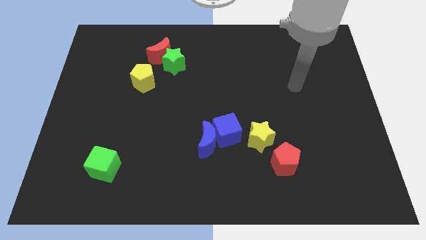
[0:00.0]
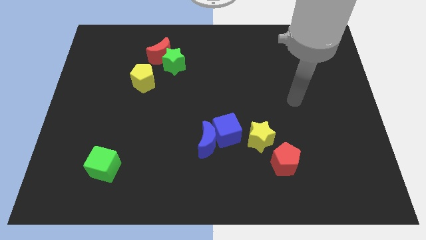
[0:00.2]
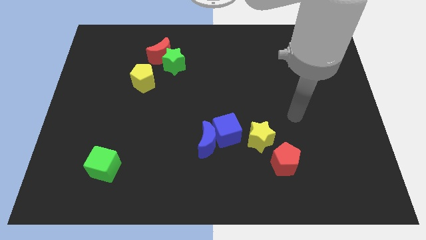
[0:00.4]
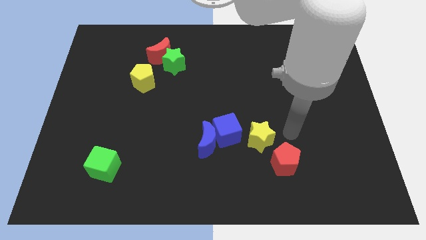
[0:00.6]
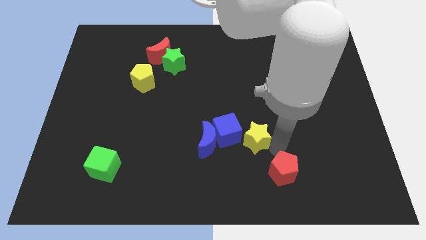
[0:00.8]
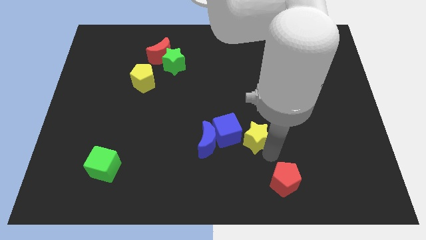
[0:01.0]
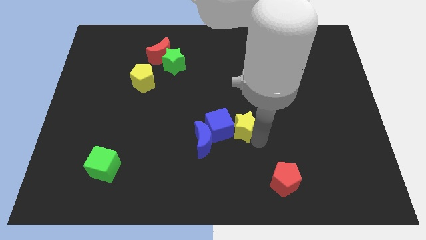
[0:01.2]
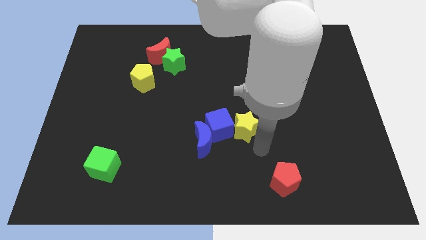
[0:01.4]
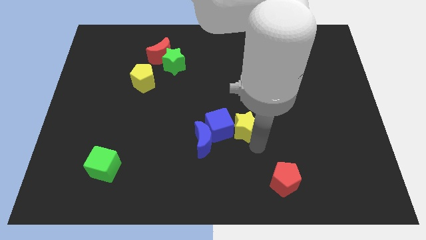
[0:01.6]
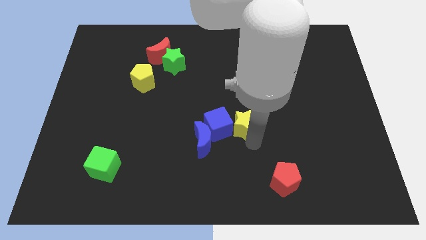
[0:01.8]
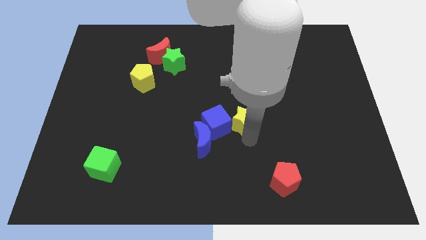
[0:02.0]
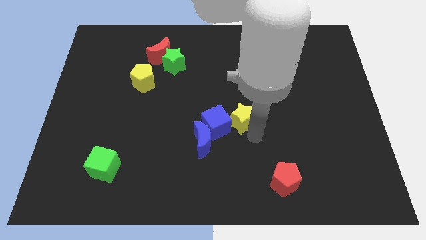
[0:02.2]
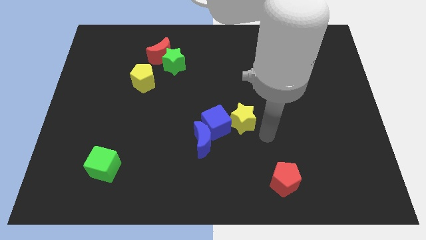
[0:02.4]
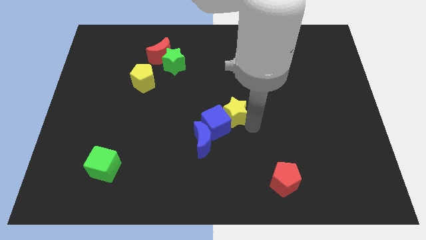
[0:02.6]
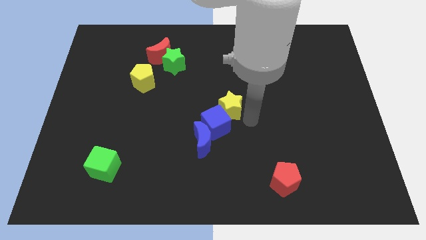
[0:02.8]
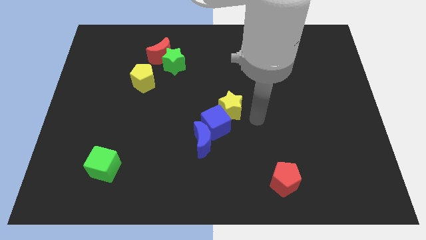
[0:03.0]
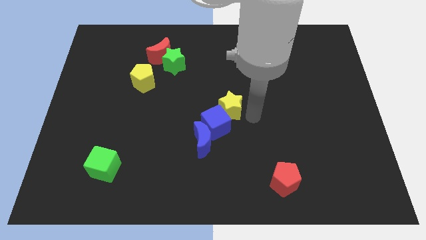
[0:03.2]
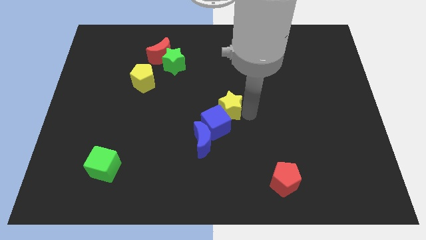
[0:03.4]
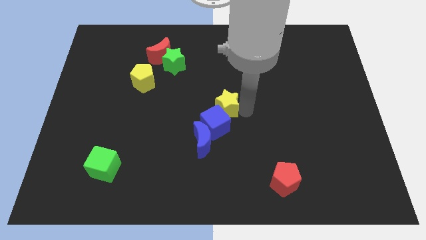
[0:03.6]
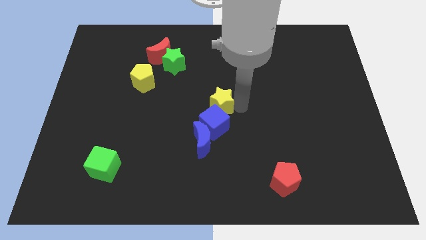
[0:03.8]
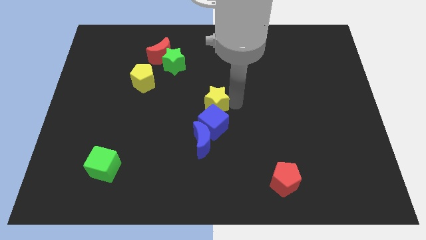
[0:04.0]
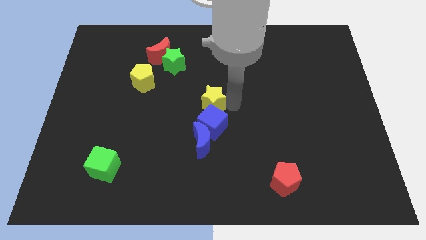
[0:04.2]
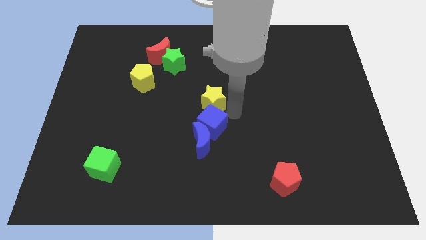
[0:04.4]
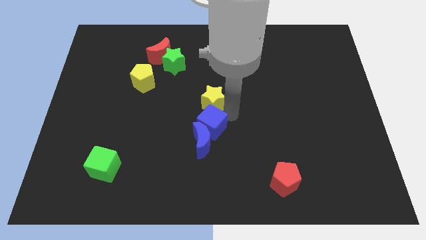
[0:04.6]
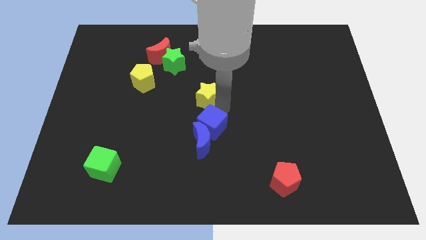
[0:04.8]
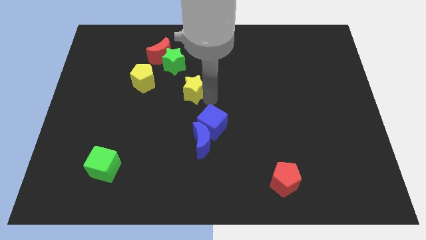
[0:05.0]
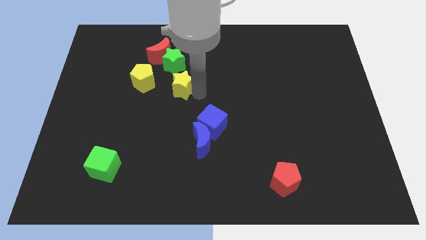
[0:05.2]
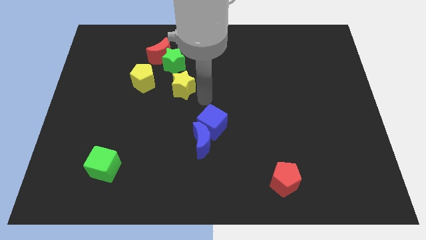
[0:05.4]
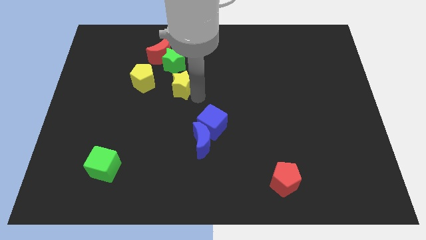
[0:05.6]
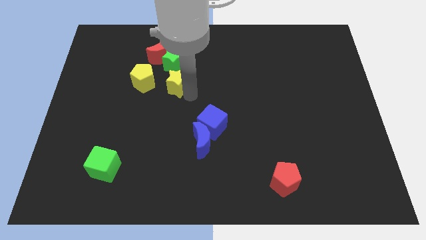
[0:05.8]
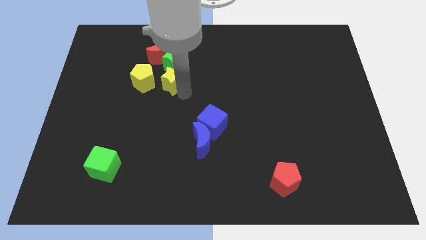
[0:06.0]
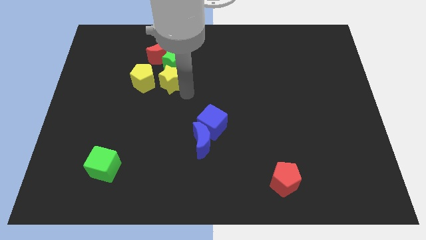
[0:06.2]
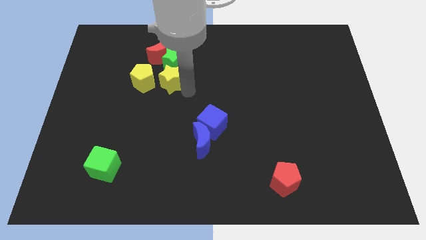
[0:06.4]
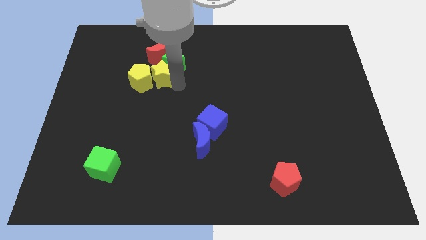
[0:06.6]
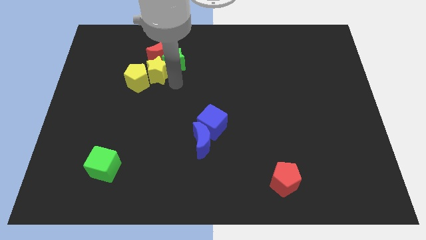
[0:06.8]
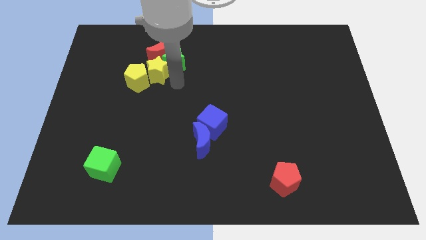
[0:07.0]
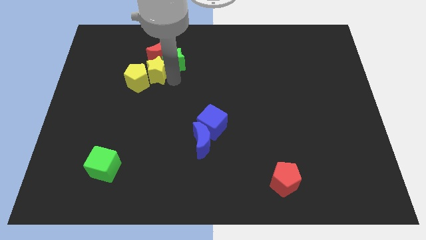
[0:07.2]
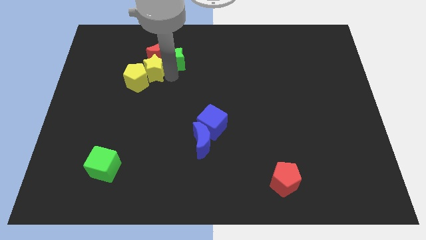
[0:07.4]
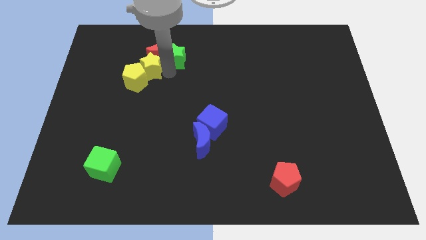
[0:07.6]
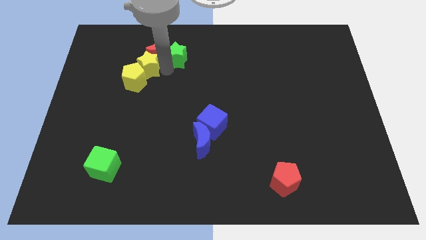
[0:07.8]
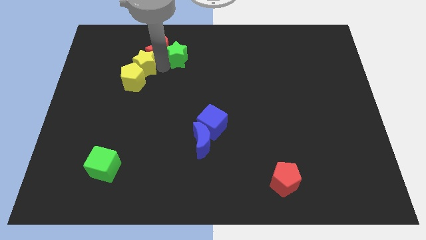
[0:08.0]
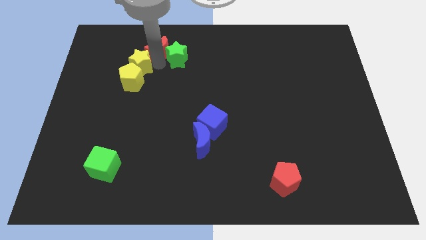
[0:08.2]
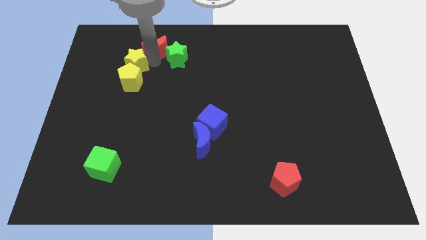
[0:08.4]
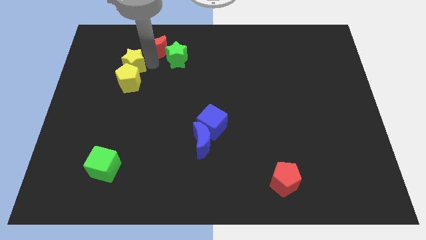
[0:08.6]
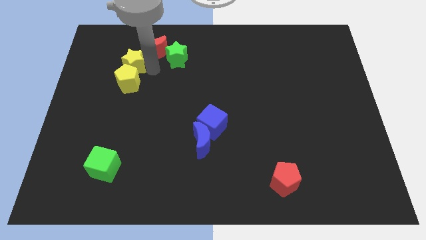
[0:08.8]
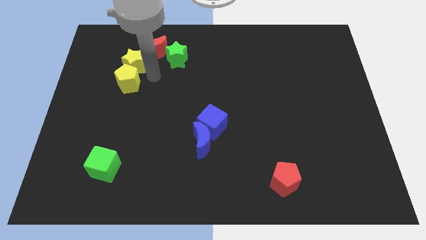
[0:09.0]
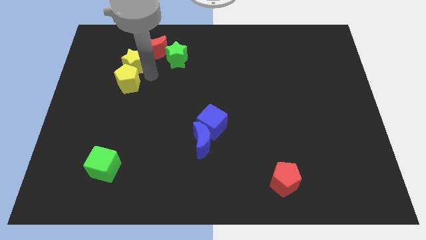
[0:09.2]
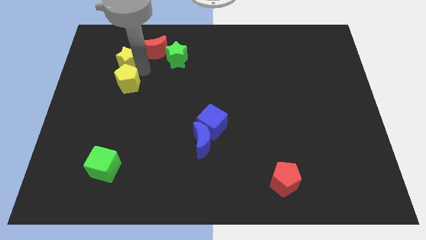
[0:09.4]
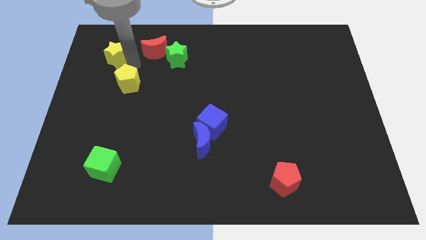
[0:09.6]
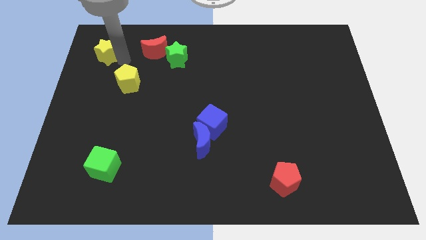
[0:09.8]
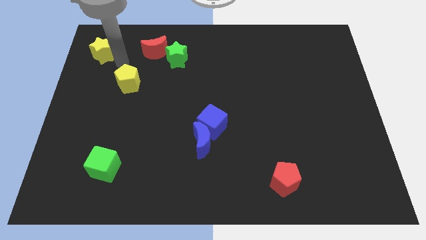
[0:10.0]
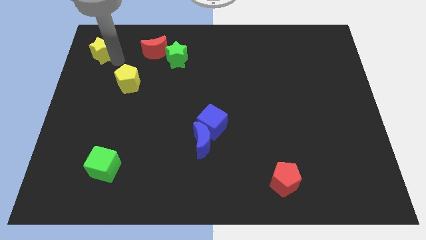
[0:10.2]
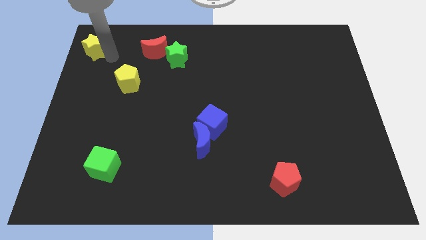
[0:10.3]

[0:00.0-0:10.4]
move the yellow star to the top left of the board

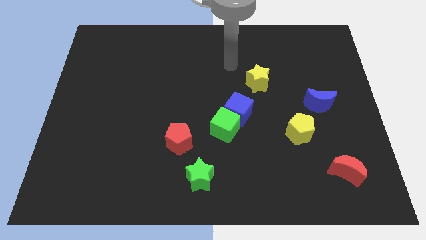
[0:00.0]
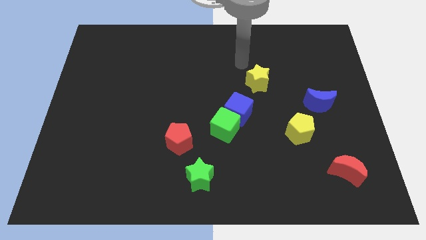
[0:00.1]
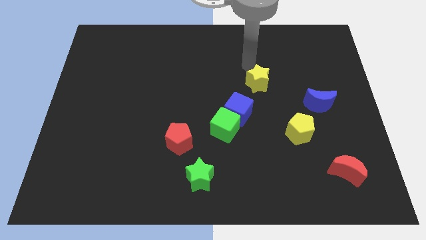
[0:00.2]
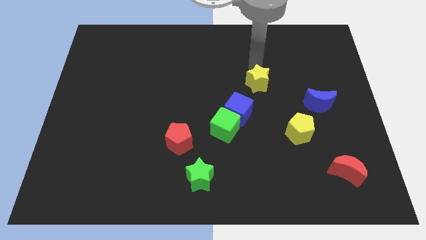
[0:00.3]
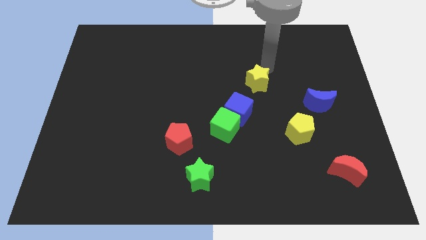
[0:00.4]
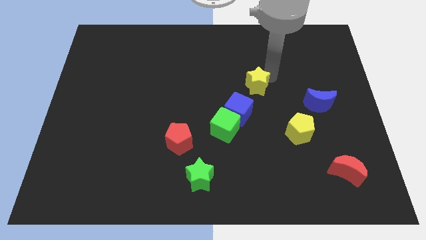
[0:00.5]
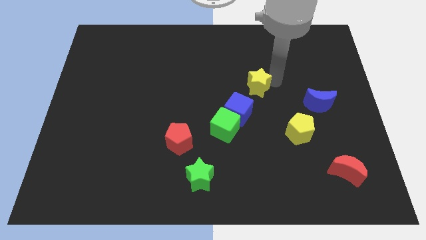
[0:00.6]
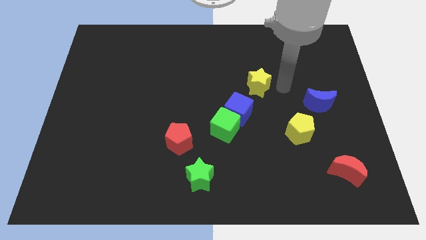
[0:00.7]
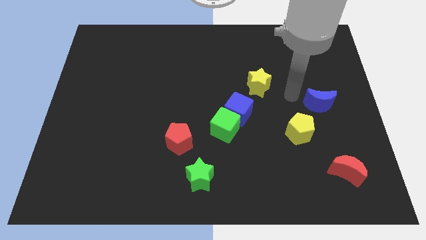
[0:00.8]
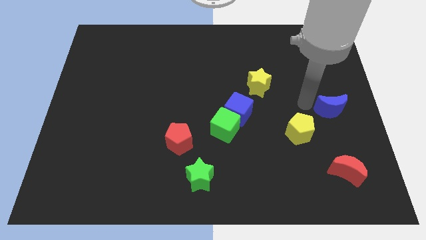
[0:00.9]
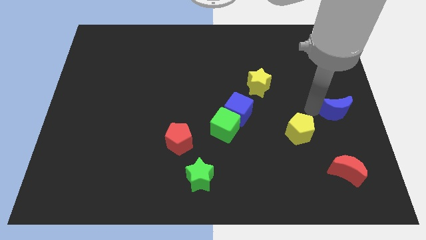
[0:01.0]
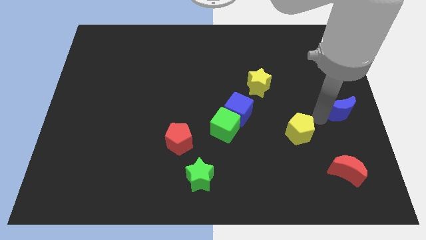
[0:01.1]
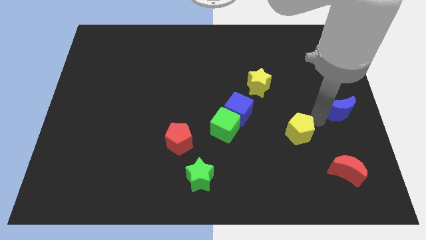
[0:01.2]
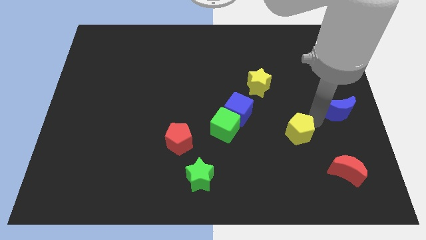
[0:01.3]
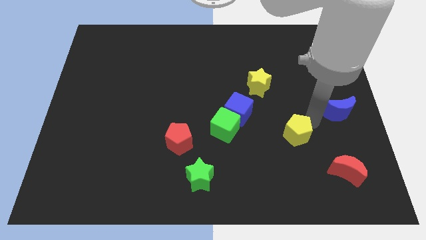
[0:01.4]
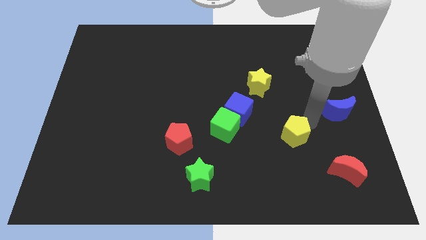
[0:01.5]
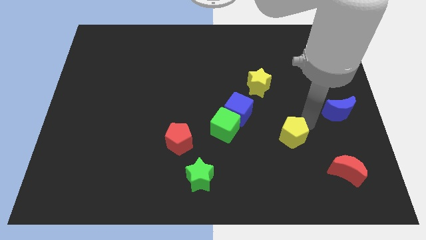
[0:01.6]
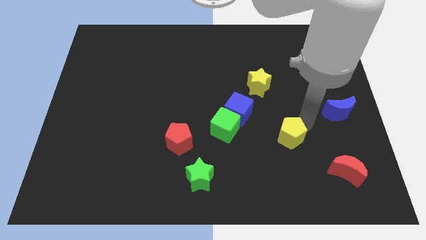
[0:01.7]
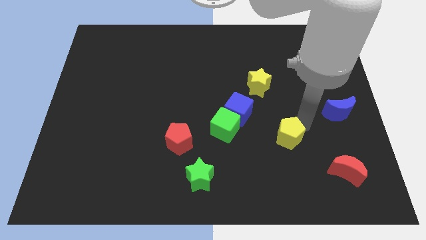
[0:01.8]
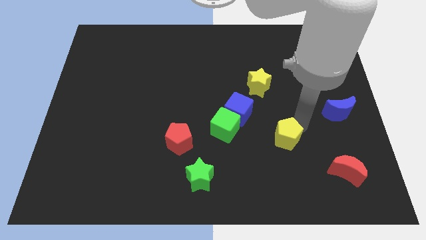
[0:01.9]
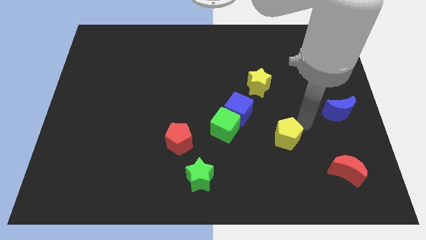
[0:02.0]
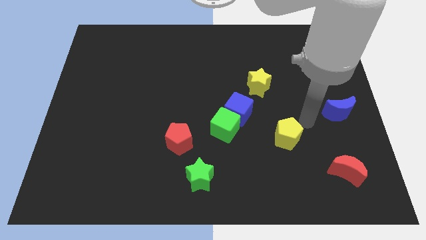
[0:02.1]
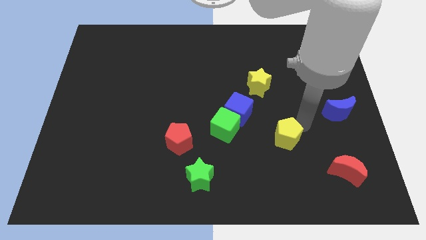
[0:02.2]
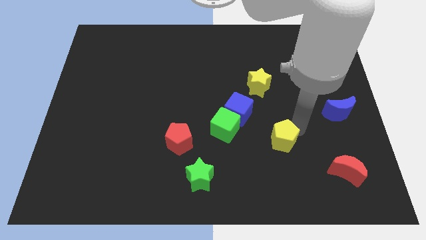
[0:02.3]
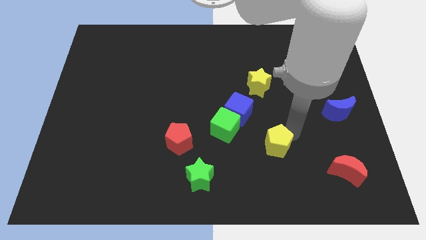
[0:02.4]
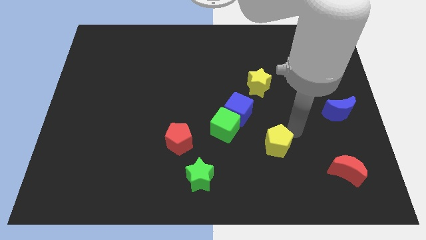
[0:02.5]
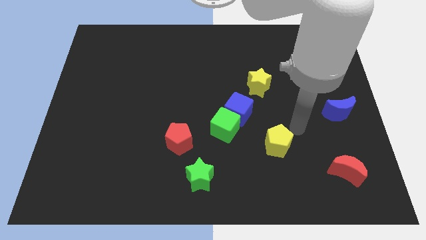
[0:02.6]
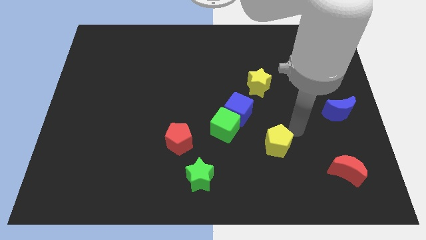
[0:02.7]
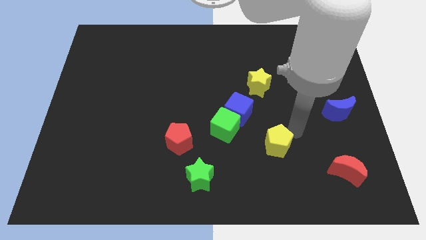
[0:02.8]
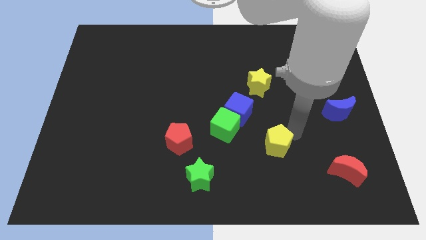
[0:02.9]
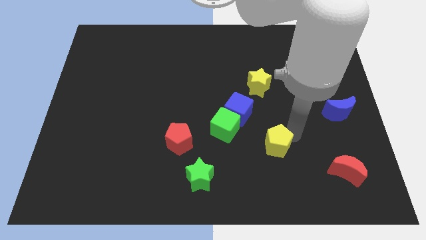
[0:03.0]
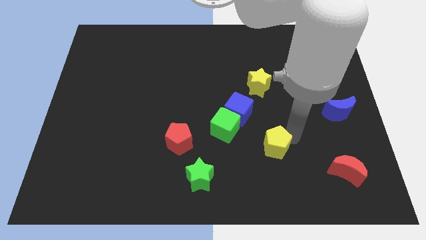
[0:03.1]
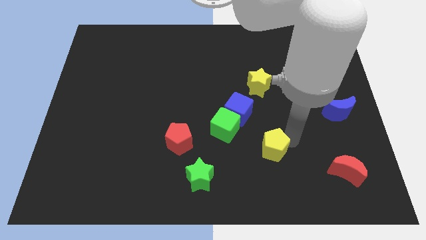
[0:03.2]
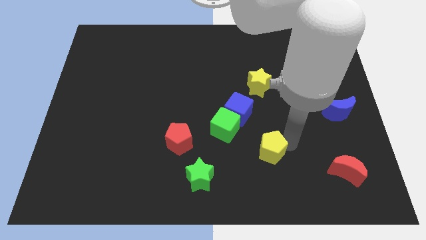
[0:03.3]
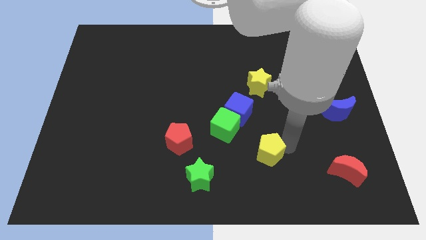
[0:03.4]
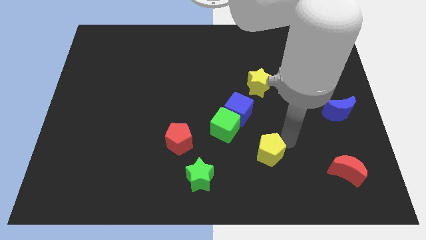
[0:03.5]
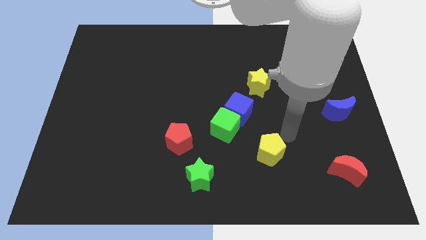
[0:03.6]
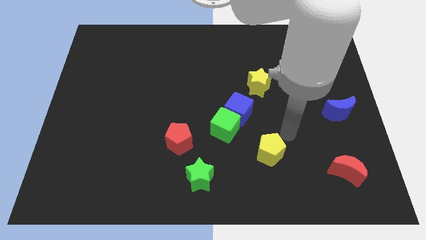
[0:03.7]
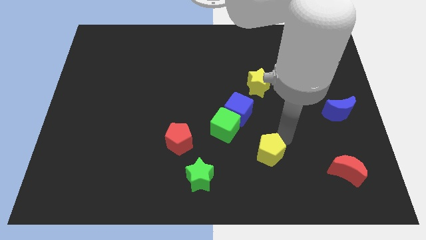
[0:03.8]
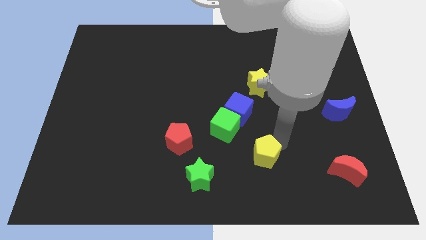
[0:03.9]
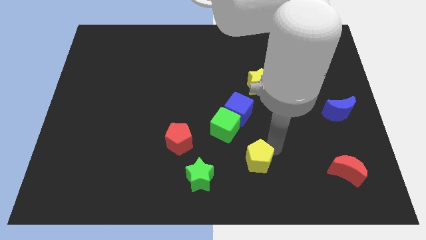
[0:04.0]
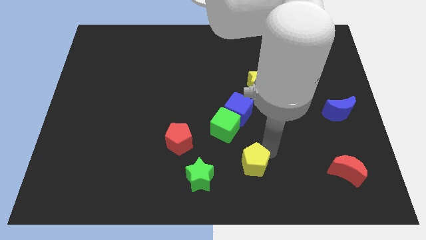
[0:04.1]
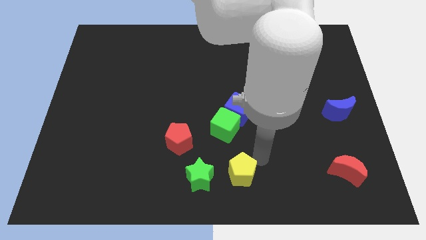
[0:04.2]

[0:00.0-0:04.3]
slide the yellow pentagon to the bottom
